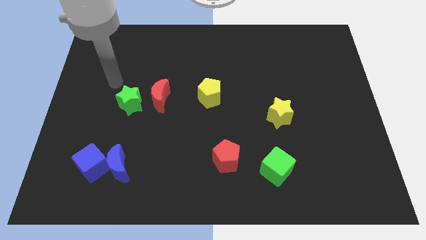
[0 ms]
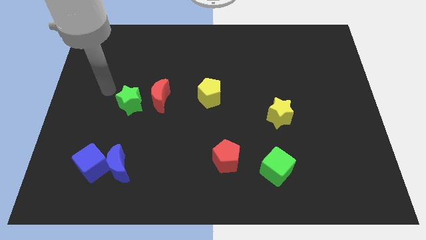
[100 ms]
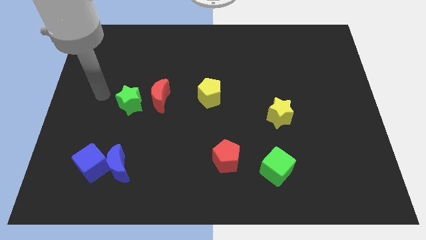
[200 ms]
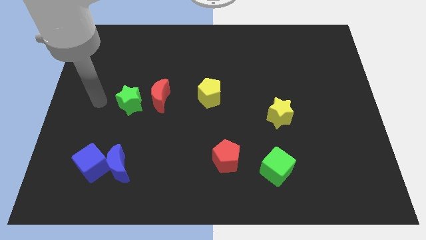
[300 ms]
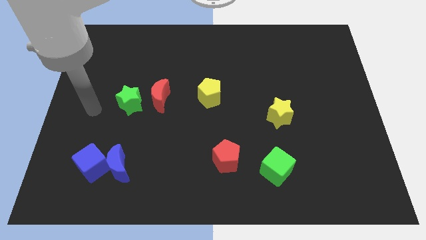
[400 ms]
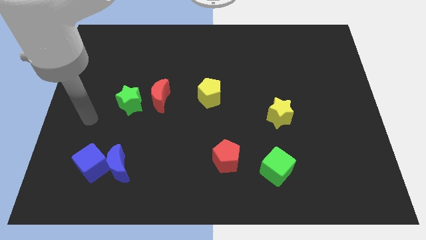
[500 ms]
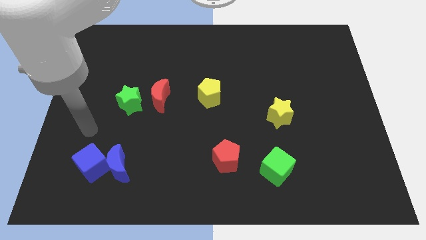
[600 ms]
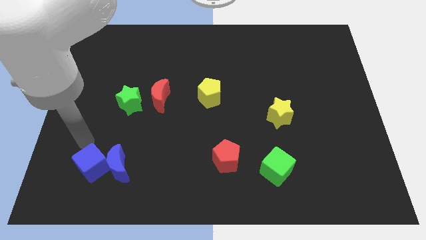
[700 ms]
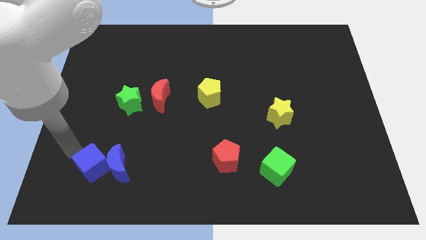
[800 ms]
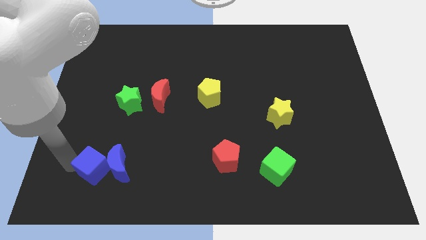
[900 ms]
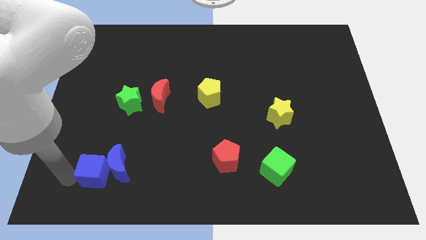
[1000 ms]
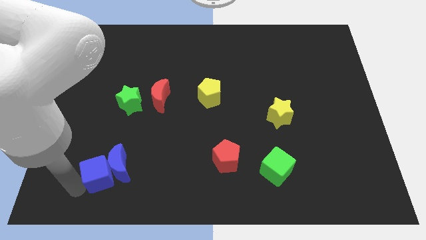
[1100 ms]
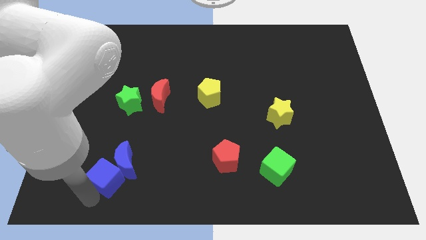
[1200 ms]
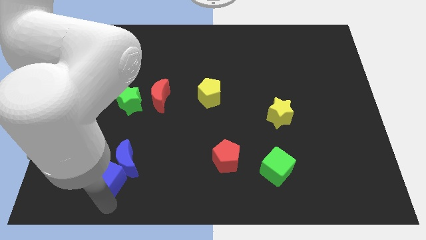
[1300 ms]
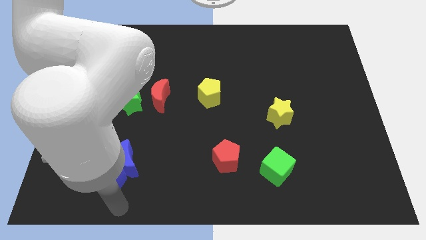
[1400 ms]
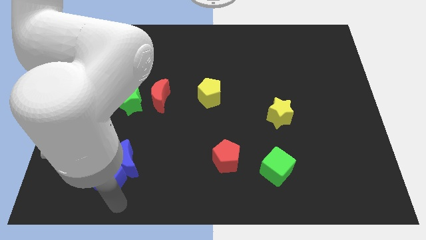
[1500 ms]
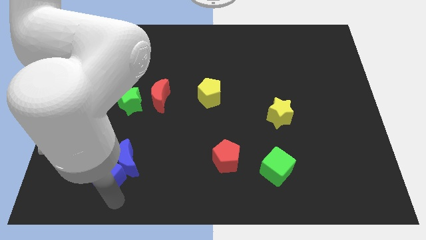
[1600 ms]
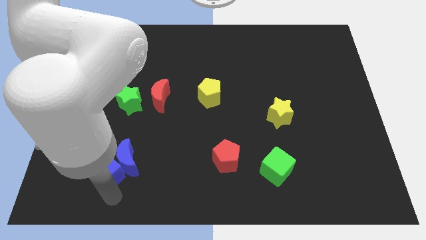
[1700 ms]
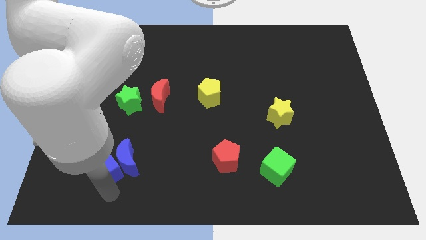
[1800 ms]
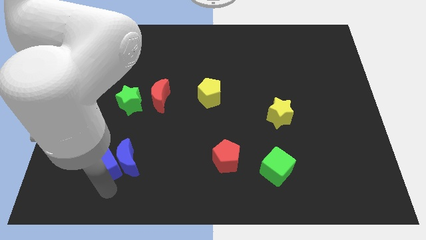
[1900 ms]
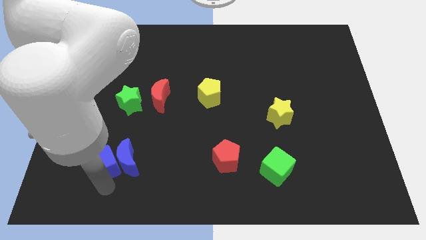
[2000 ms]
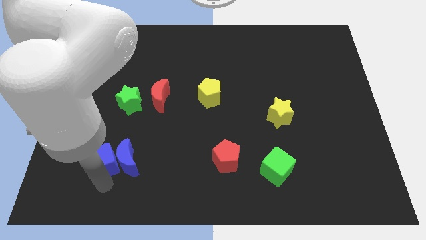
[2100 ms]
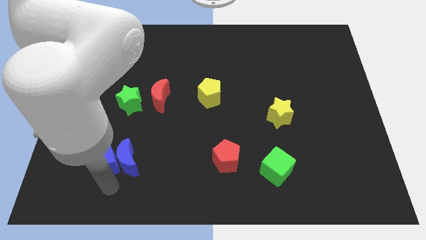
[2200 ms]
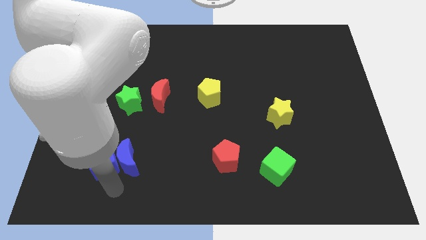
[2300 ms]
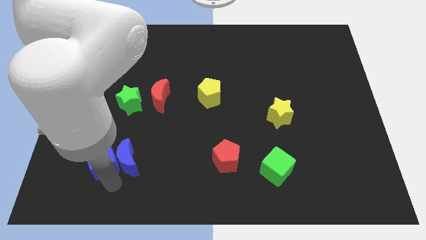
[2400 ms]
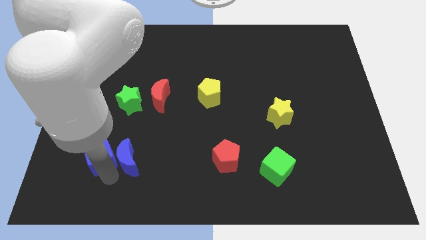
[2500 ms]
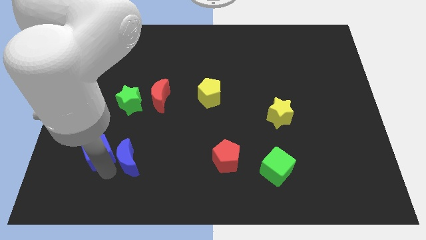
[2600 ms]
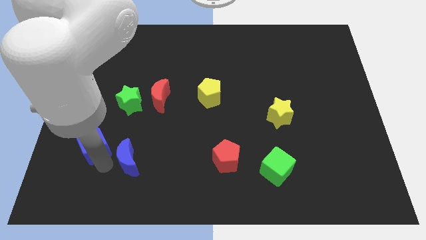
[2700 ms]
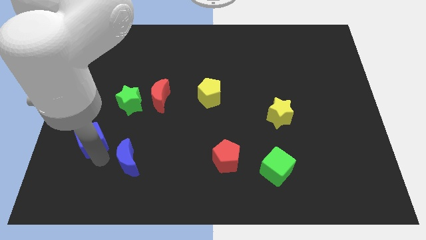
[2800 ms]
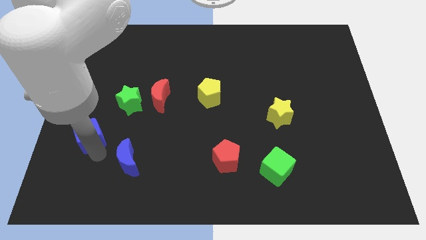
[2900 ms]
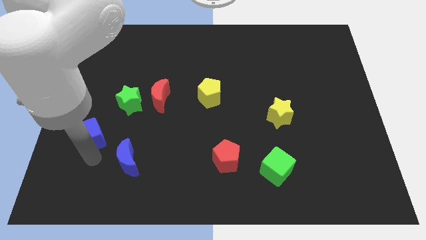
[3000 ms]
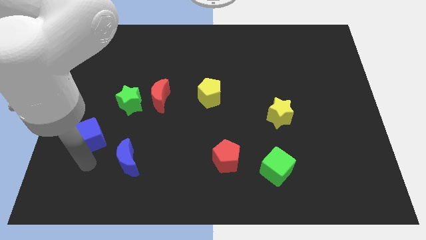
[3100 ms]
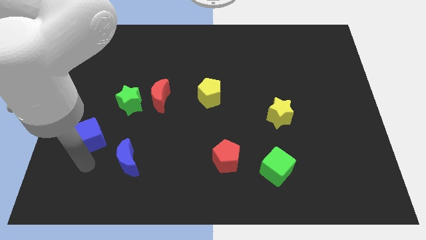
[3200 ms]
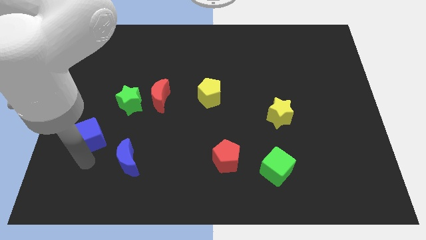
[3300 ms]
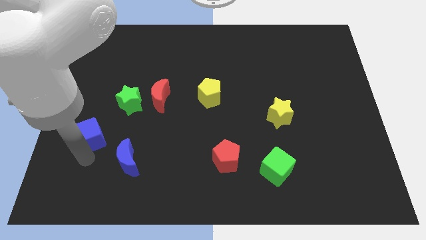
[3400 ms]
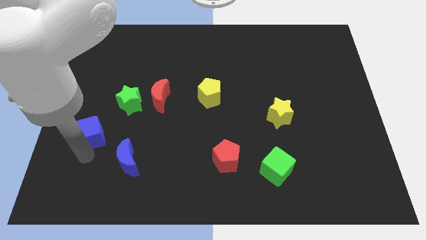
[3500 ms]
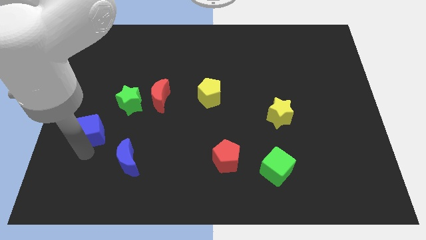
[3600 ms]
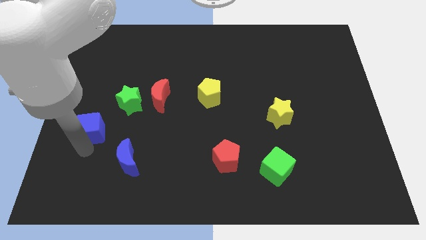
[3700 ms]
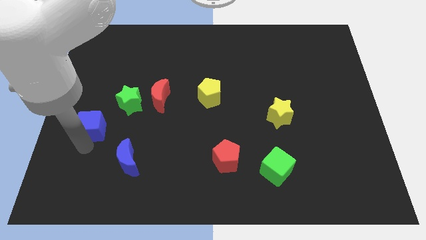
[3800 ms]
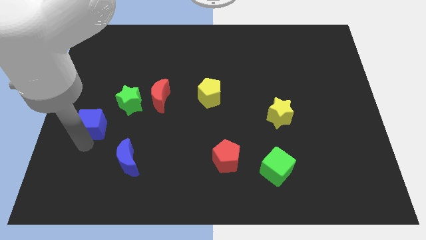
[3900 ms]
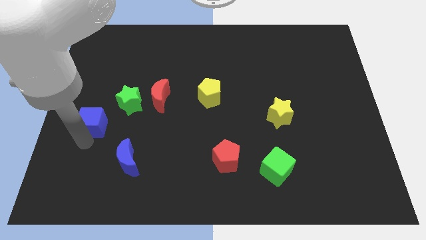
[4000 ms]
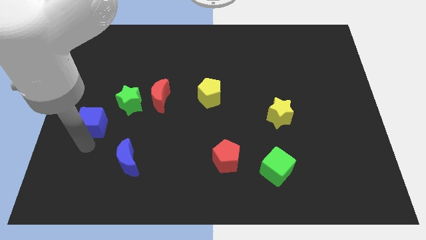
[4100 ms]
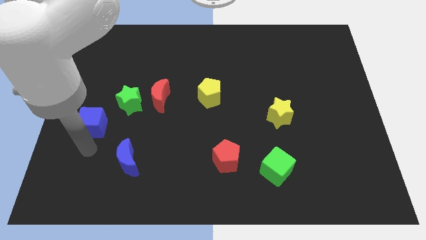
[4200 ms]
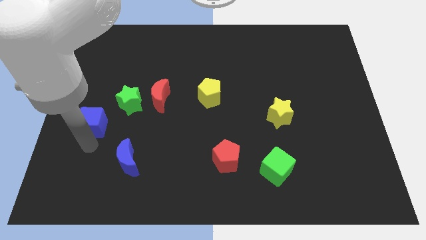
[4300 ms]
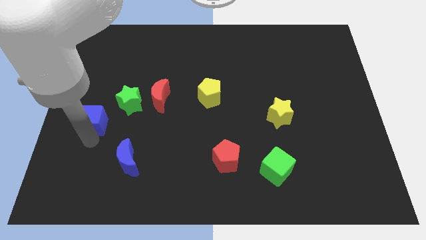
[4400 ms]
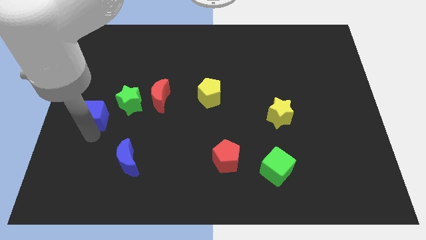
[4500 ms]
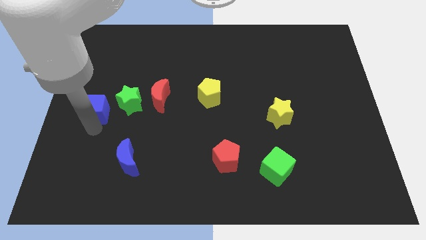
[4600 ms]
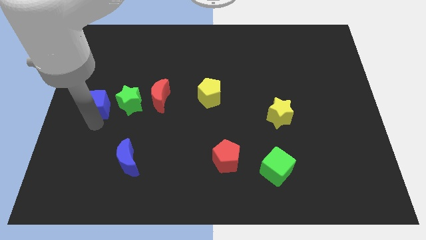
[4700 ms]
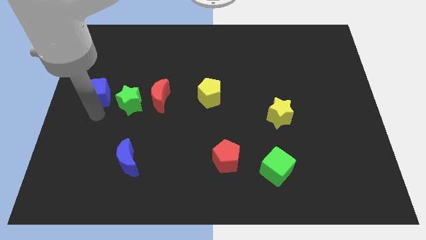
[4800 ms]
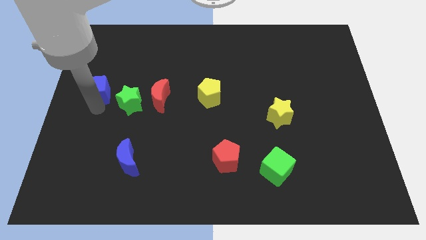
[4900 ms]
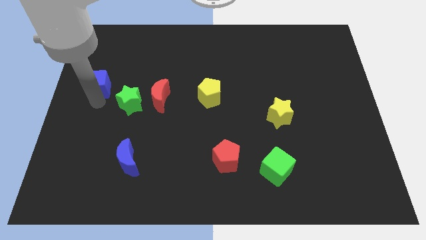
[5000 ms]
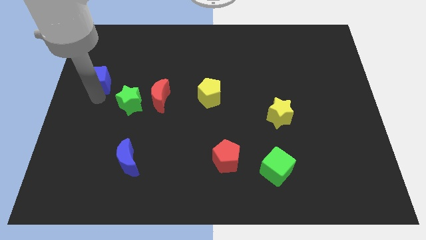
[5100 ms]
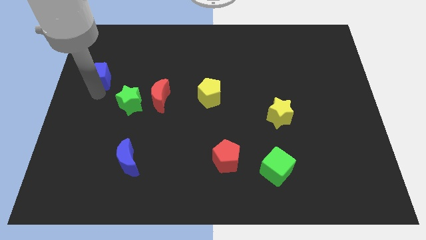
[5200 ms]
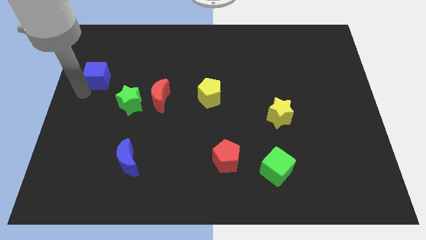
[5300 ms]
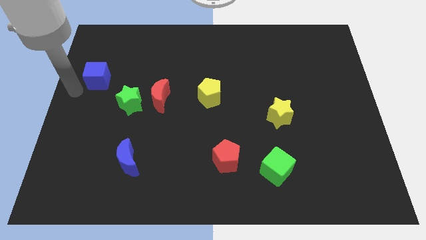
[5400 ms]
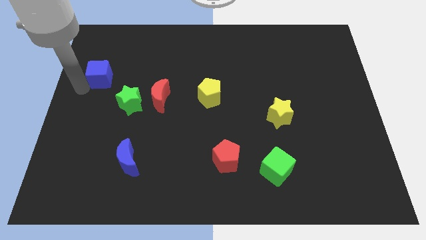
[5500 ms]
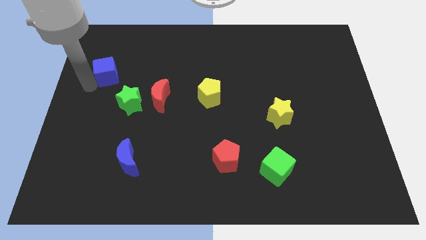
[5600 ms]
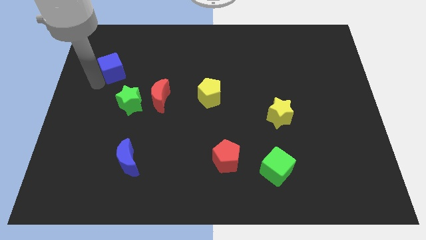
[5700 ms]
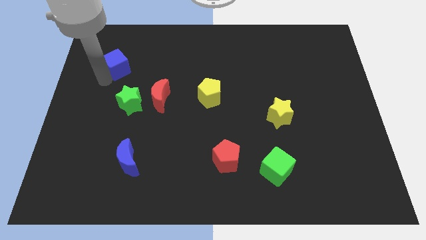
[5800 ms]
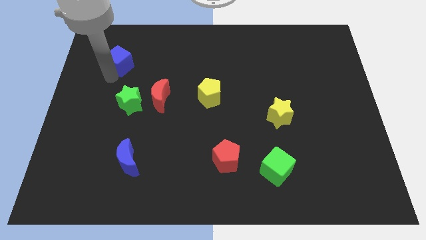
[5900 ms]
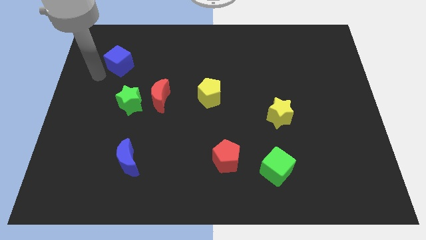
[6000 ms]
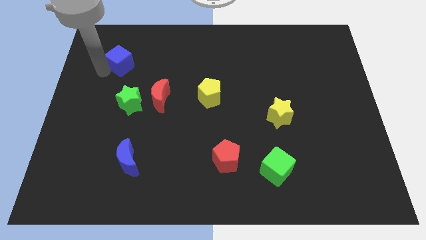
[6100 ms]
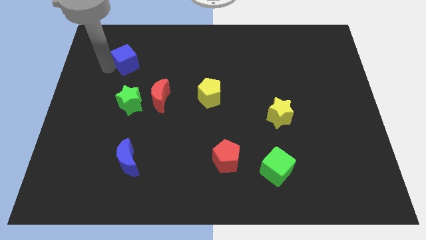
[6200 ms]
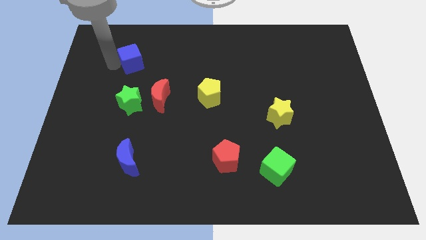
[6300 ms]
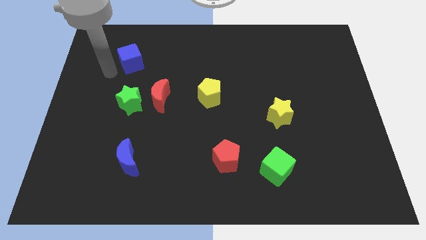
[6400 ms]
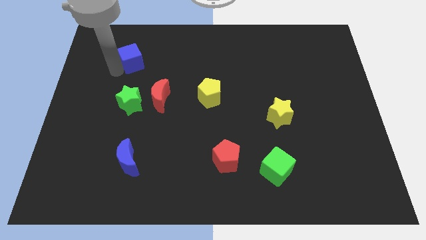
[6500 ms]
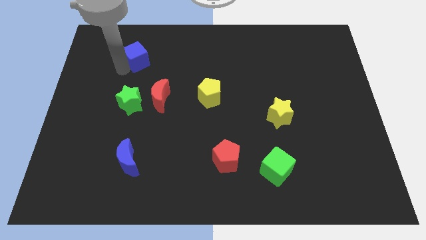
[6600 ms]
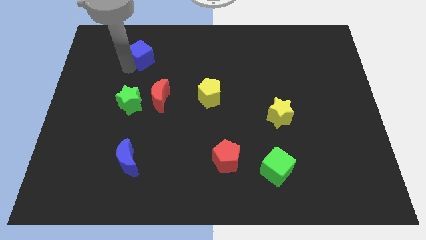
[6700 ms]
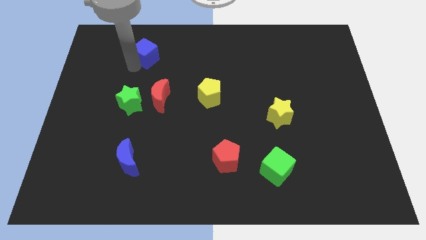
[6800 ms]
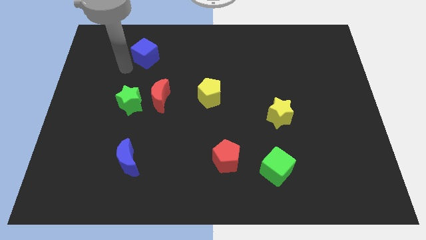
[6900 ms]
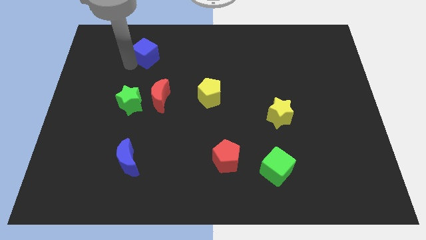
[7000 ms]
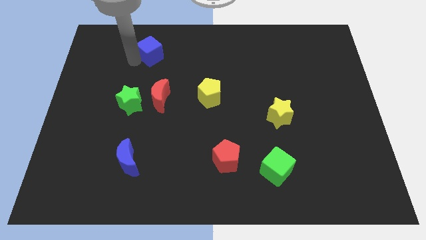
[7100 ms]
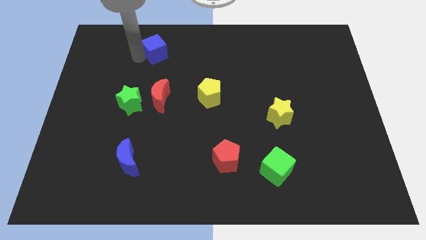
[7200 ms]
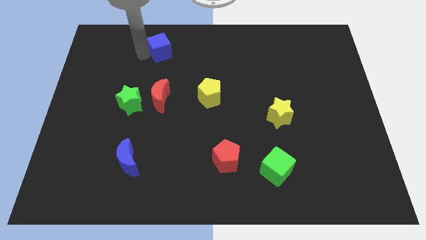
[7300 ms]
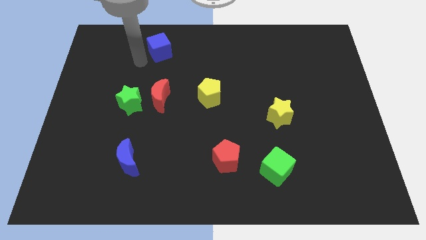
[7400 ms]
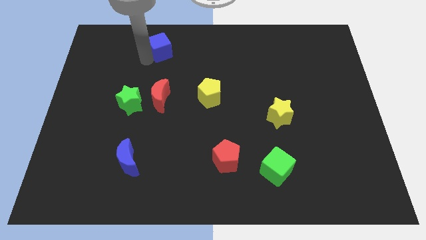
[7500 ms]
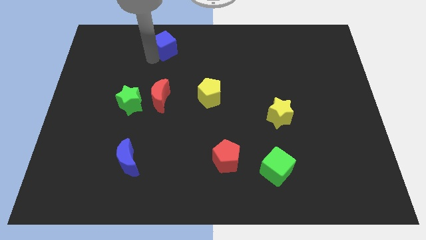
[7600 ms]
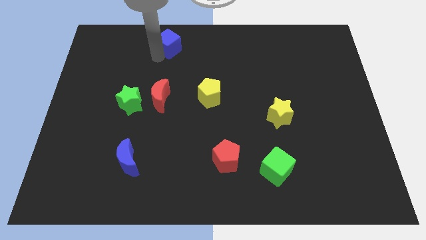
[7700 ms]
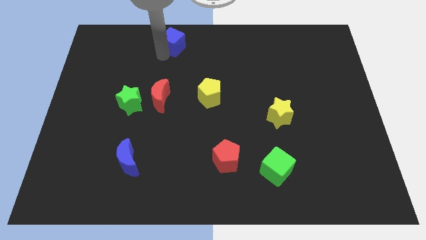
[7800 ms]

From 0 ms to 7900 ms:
put the blue cube to the top
